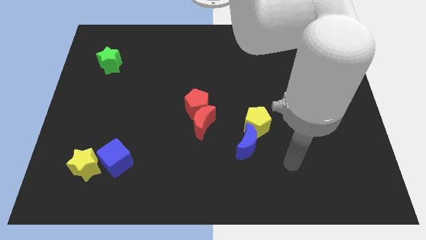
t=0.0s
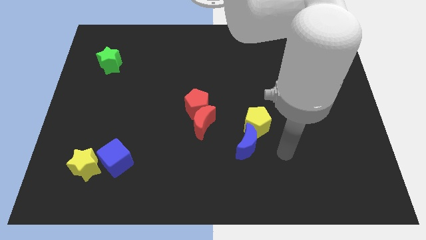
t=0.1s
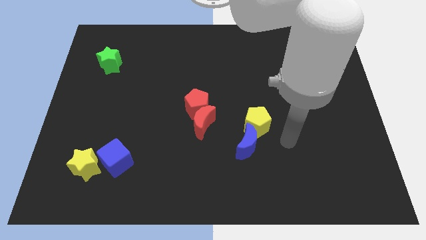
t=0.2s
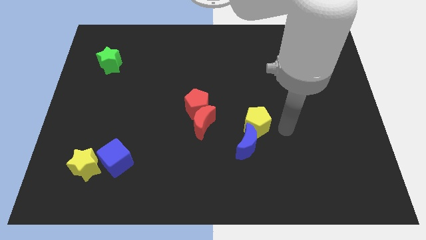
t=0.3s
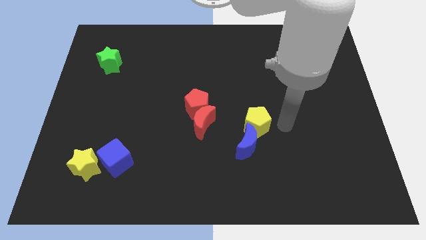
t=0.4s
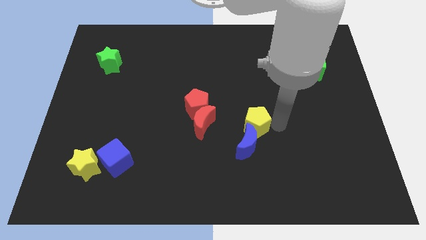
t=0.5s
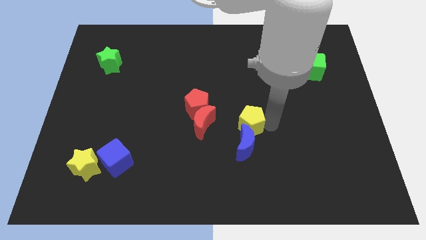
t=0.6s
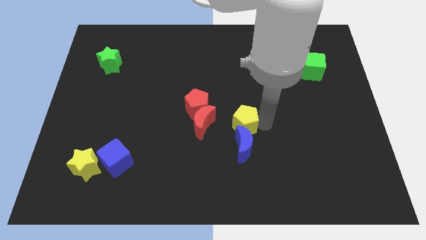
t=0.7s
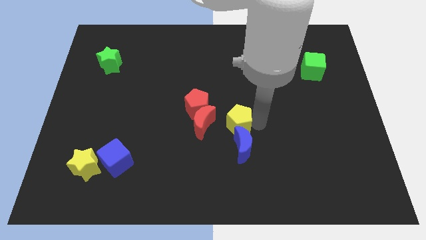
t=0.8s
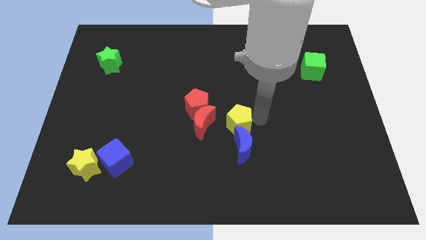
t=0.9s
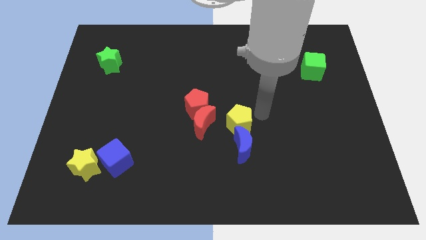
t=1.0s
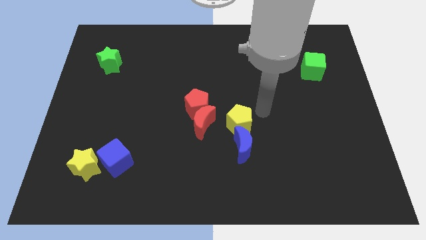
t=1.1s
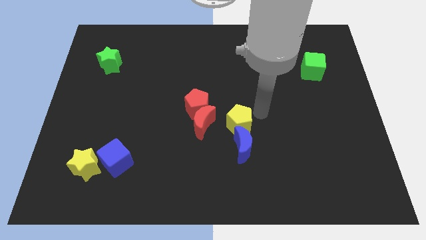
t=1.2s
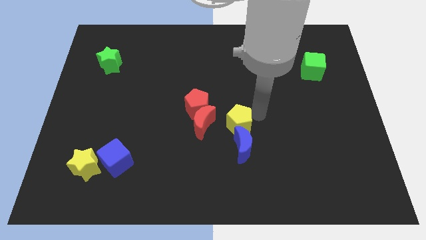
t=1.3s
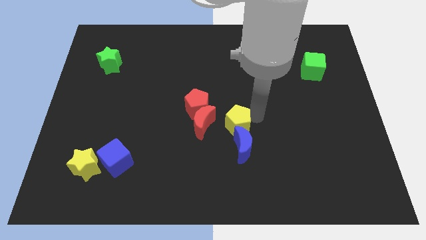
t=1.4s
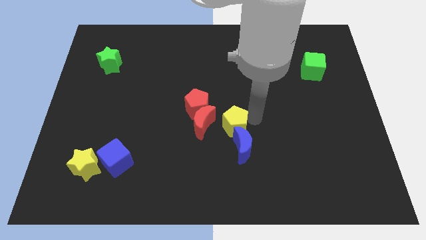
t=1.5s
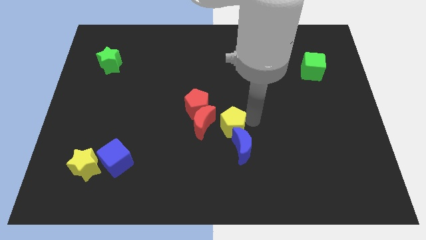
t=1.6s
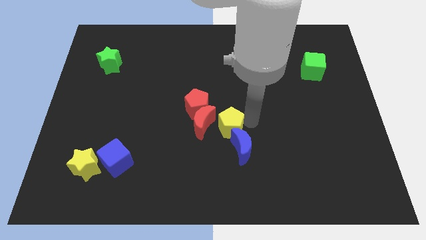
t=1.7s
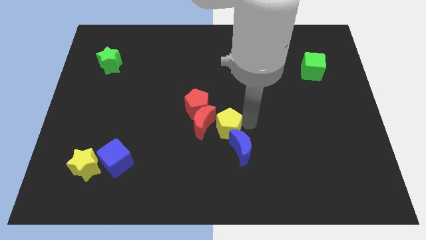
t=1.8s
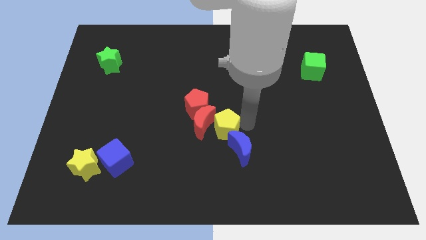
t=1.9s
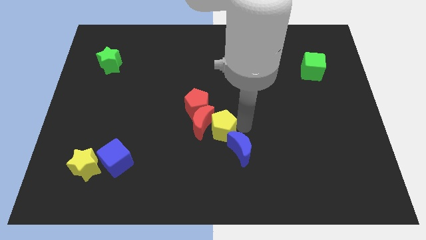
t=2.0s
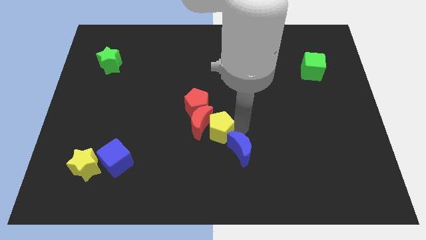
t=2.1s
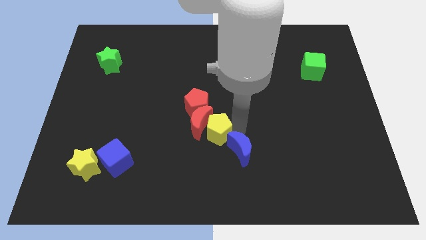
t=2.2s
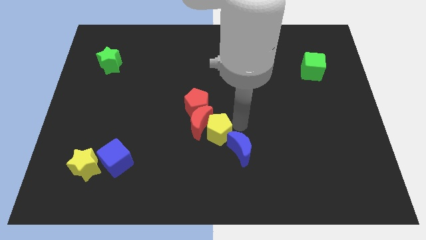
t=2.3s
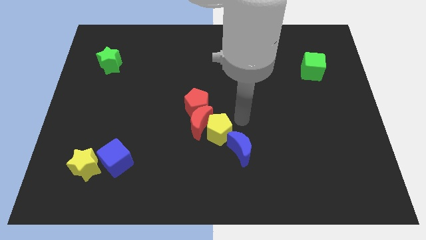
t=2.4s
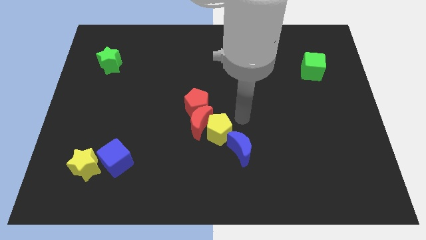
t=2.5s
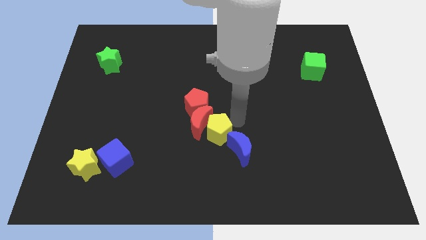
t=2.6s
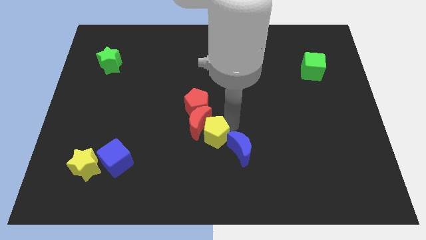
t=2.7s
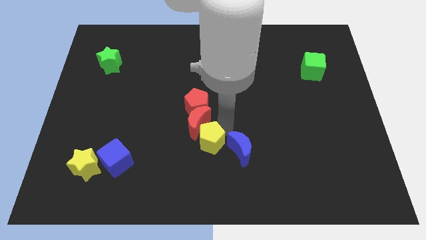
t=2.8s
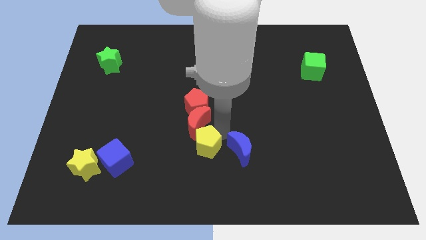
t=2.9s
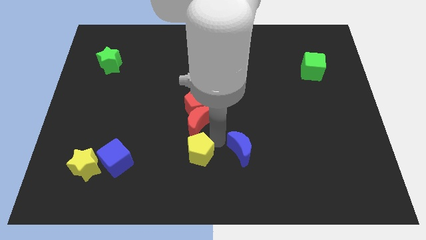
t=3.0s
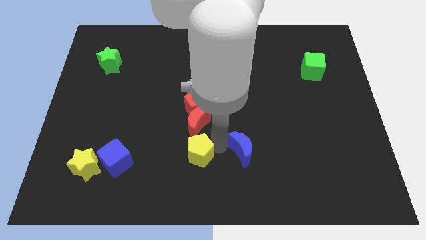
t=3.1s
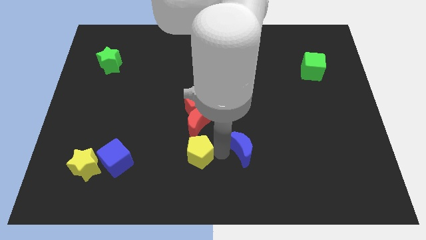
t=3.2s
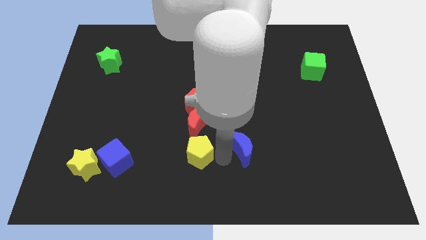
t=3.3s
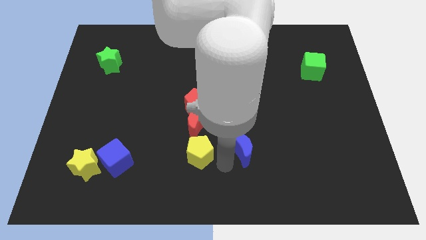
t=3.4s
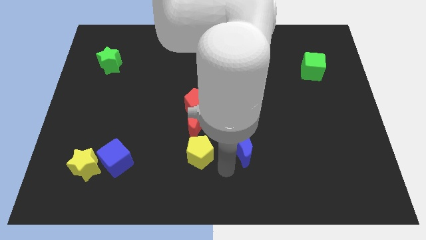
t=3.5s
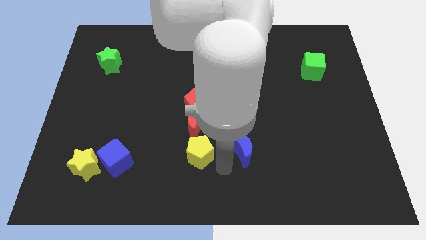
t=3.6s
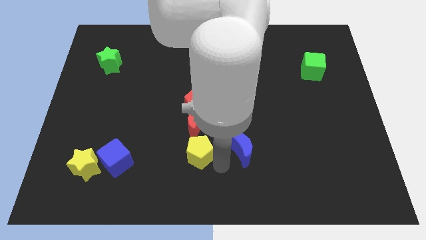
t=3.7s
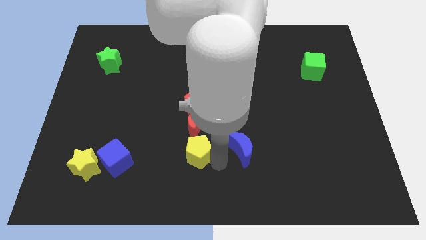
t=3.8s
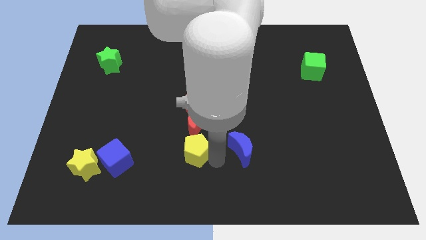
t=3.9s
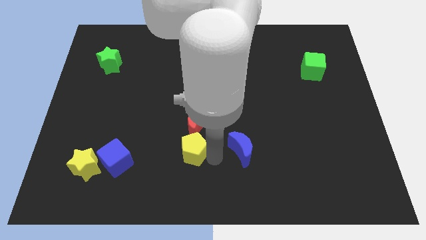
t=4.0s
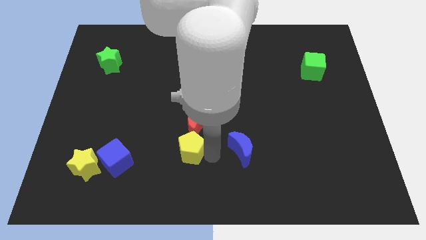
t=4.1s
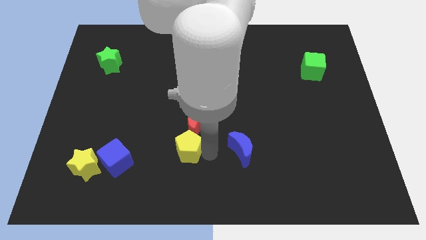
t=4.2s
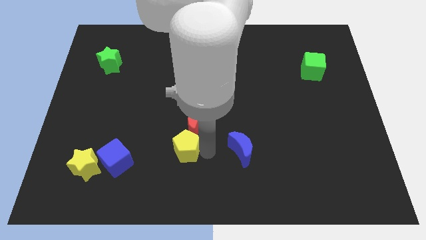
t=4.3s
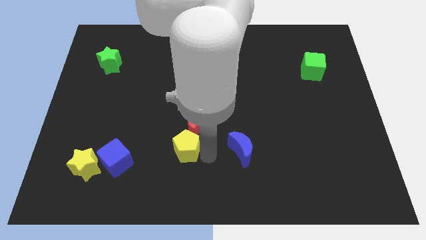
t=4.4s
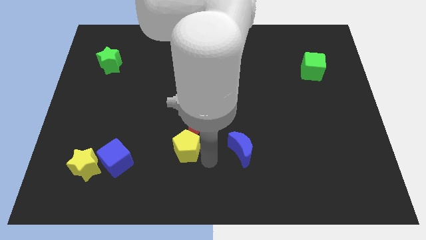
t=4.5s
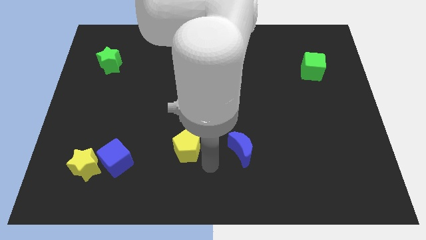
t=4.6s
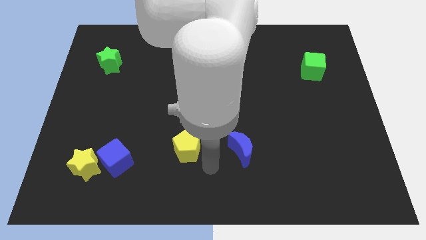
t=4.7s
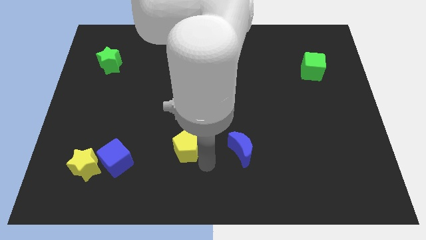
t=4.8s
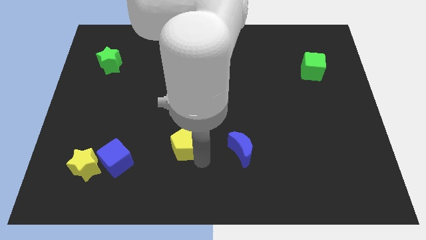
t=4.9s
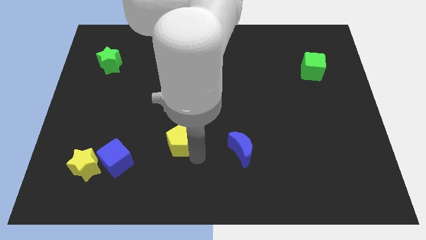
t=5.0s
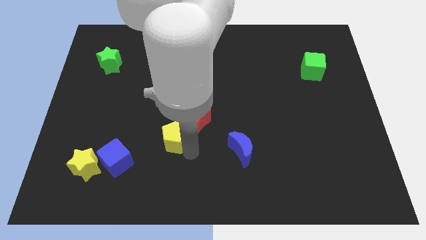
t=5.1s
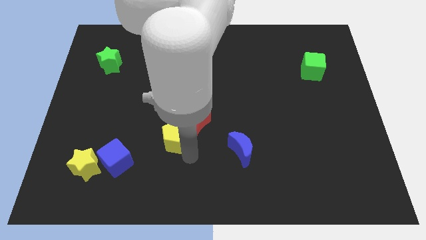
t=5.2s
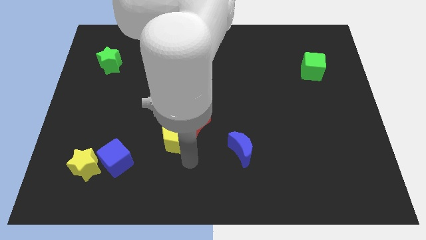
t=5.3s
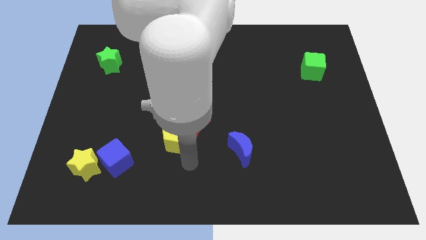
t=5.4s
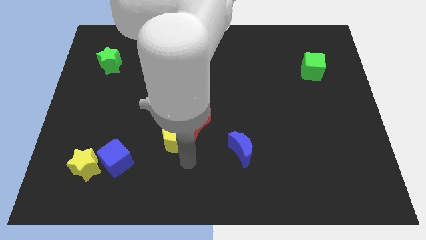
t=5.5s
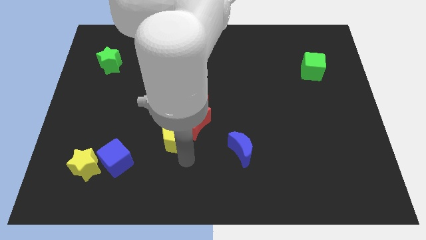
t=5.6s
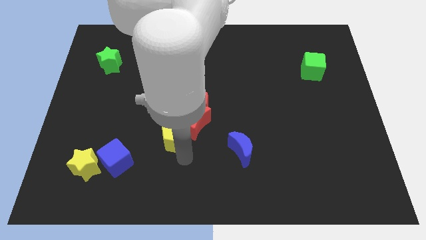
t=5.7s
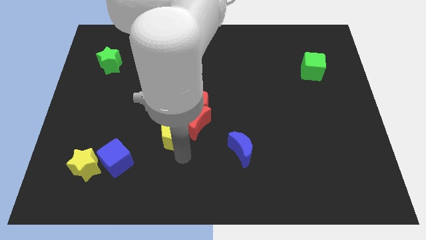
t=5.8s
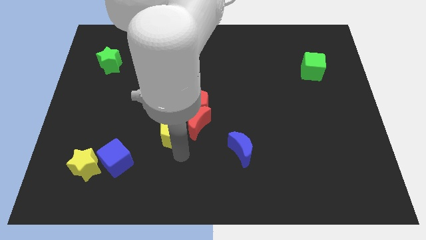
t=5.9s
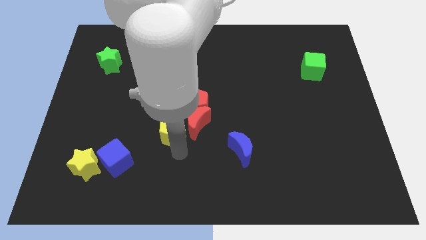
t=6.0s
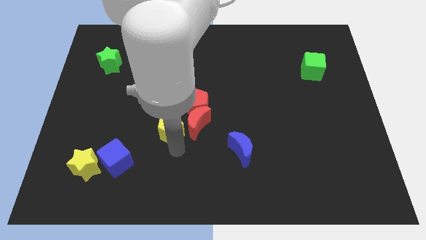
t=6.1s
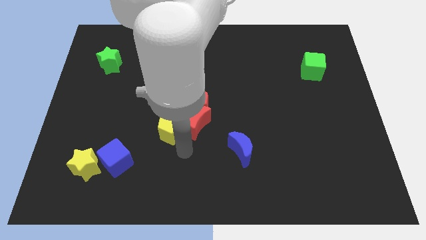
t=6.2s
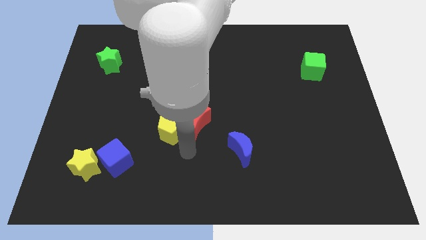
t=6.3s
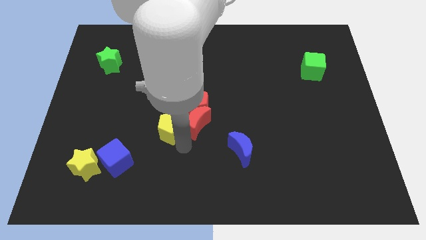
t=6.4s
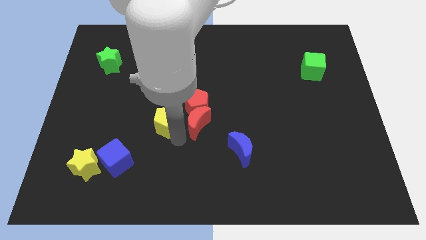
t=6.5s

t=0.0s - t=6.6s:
push the yellow pentagon just left of the red pentagon
